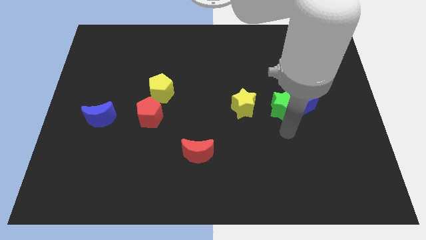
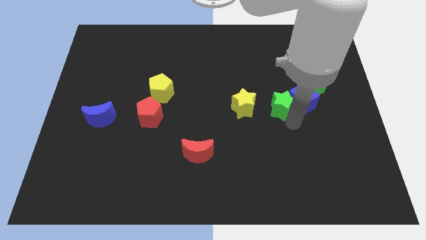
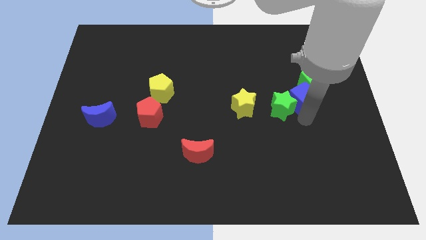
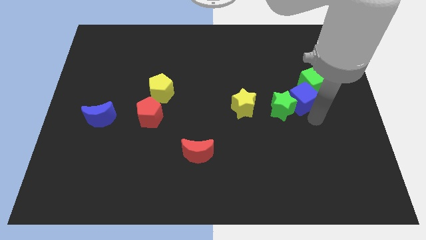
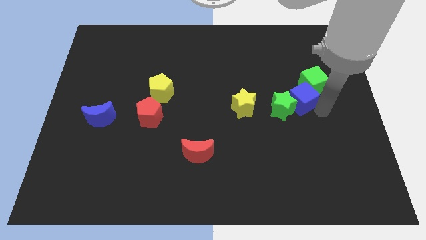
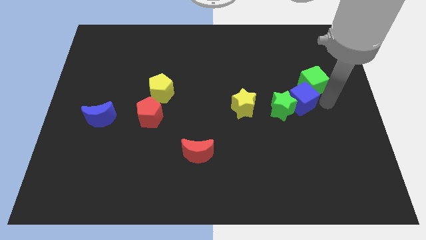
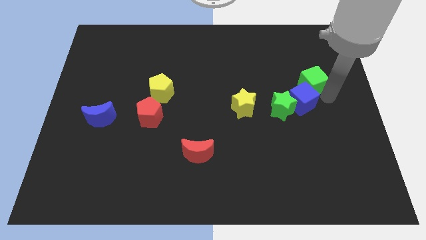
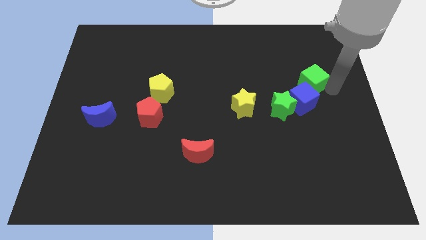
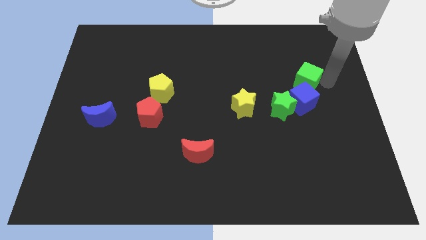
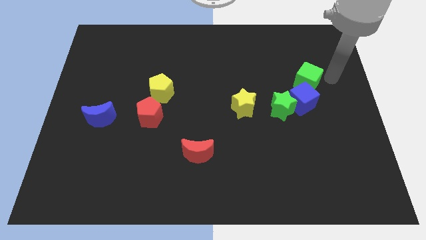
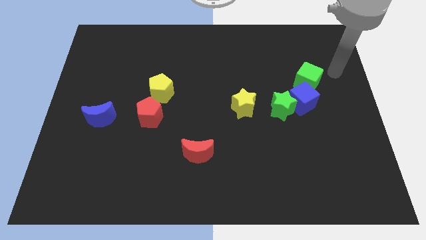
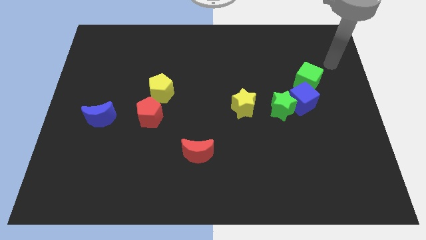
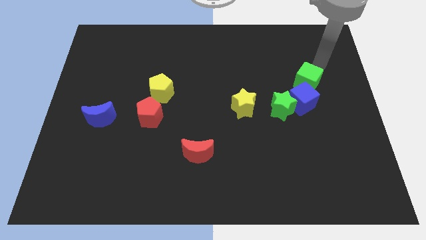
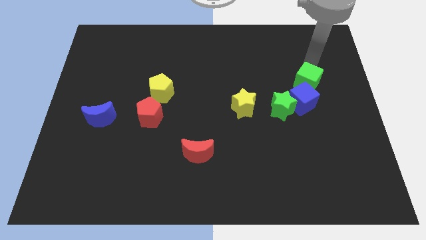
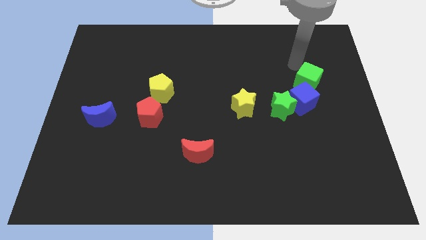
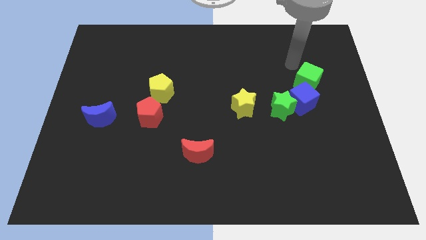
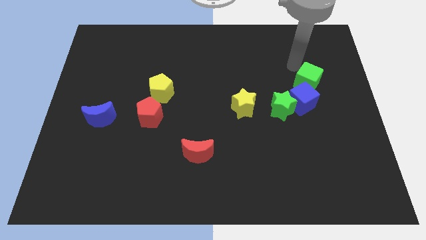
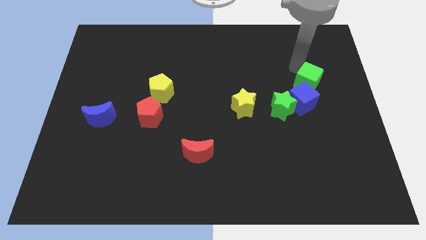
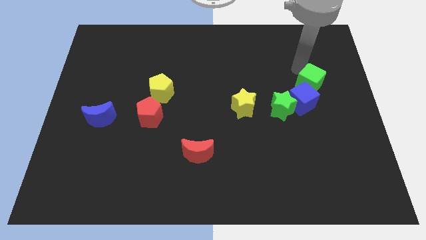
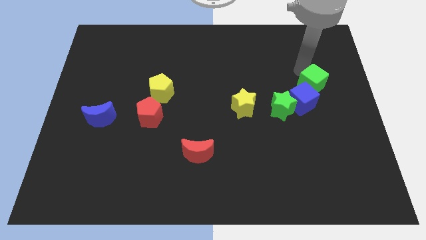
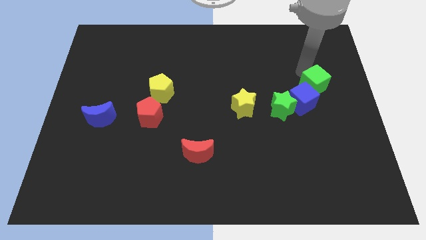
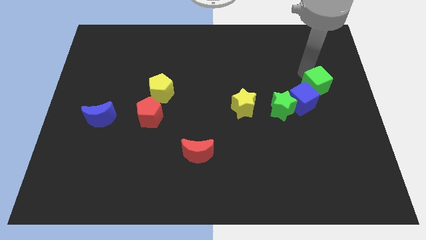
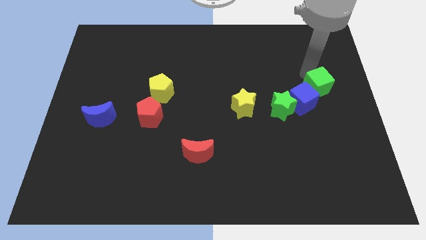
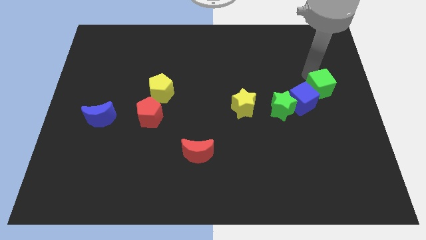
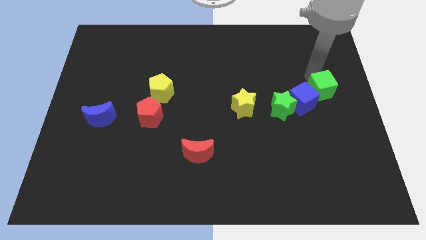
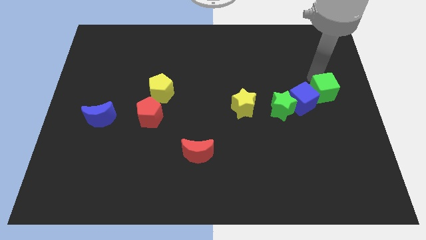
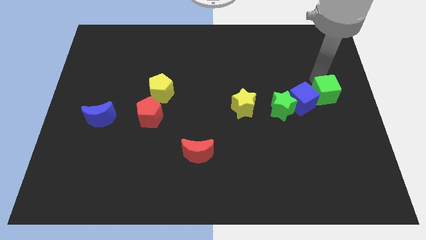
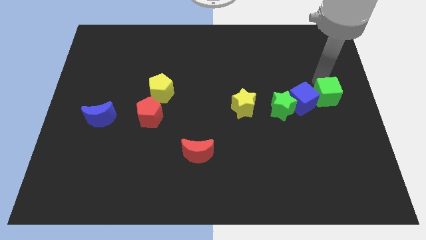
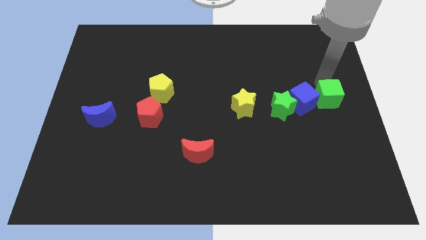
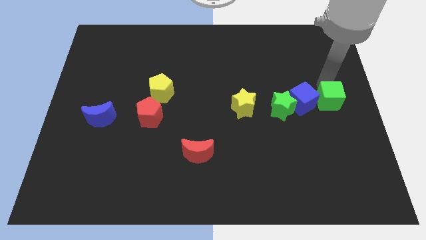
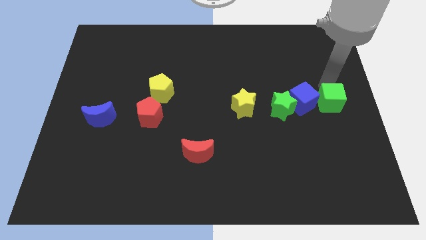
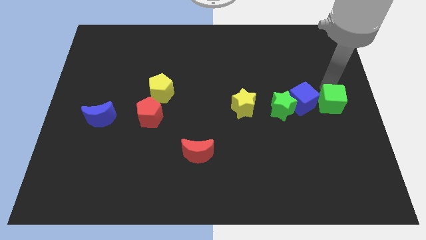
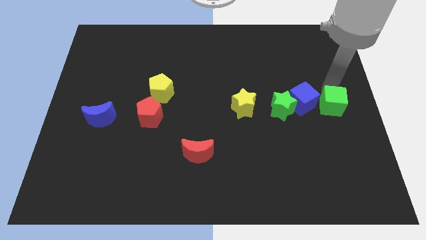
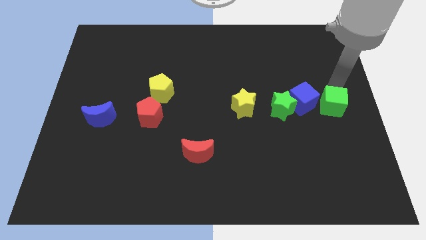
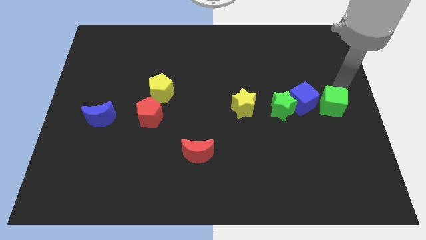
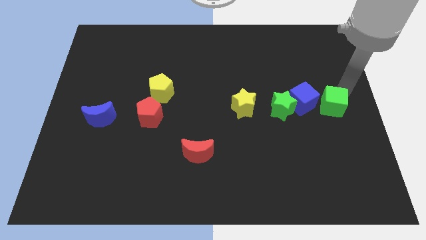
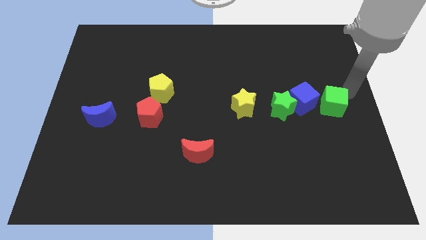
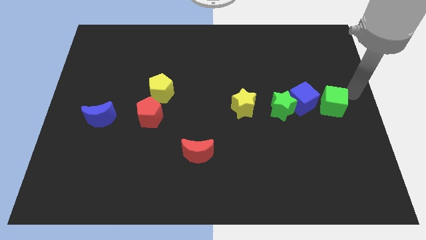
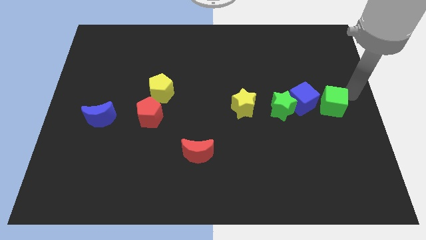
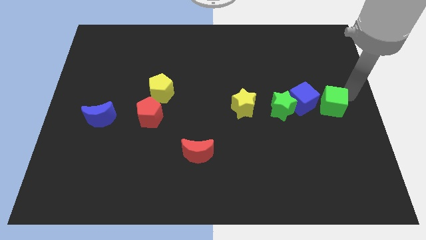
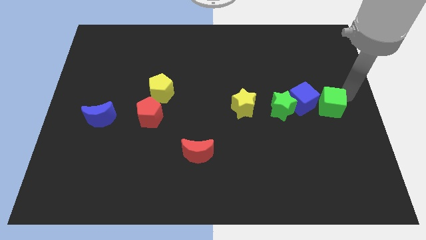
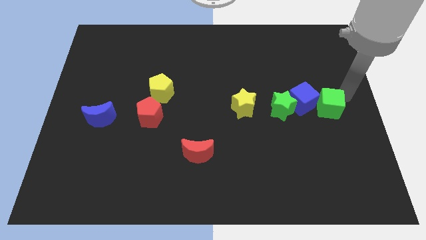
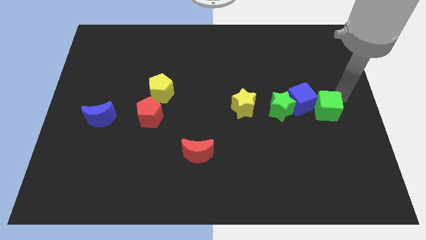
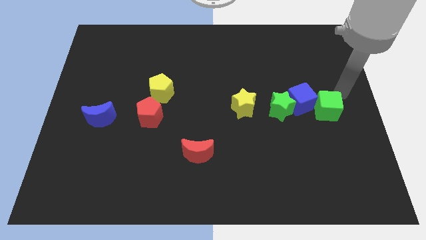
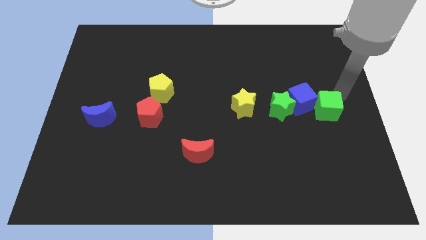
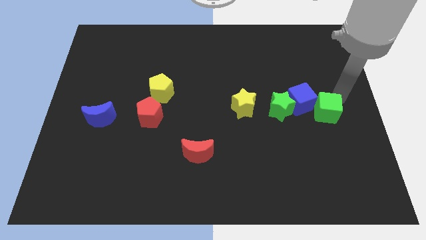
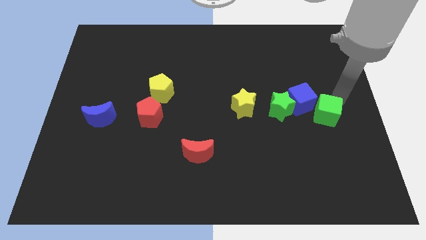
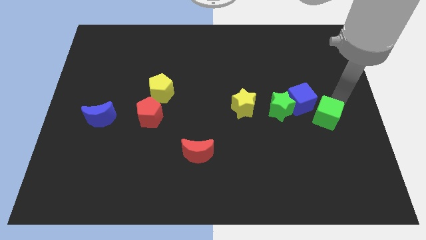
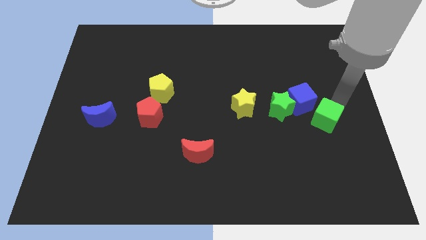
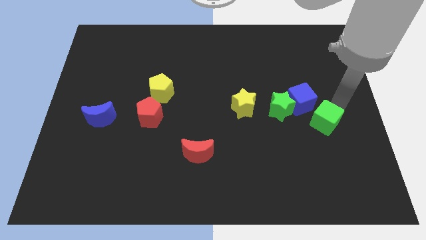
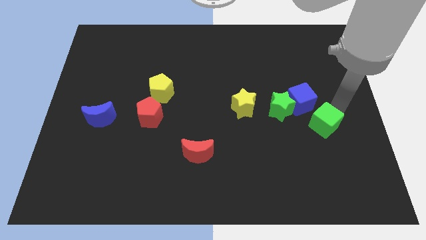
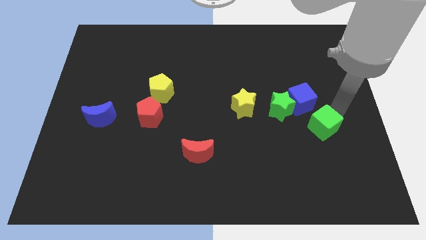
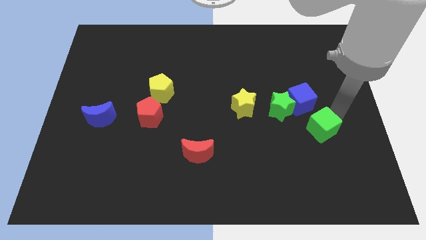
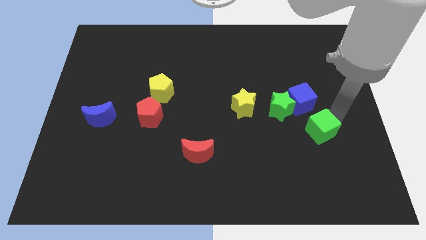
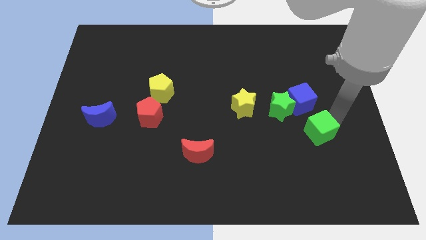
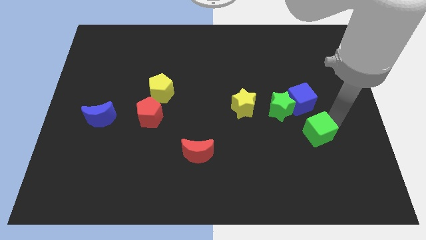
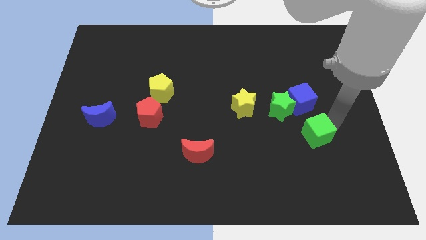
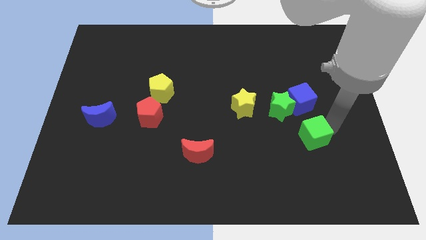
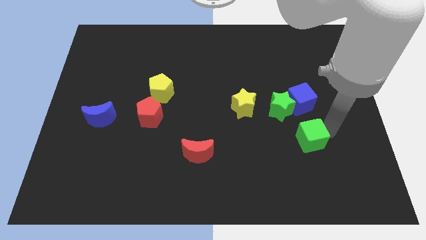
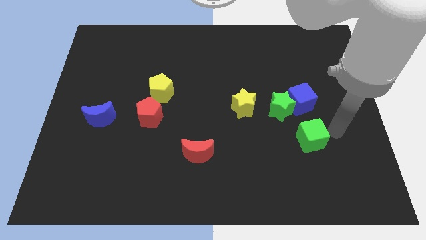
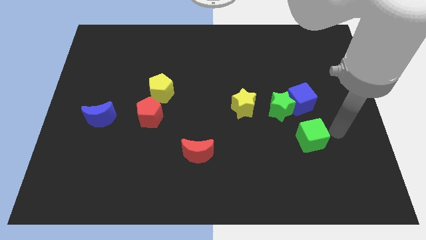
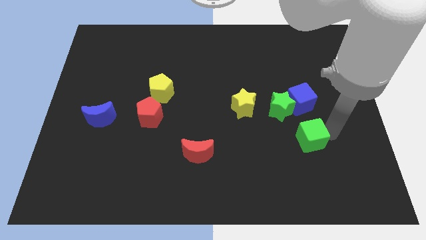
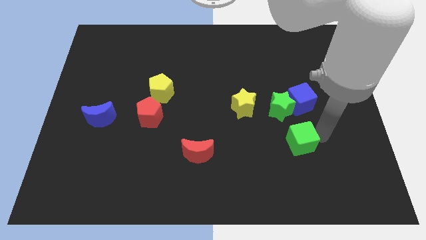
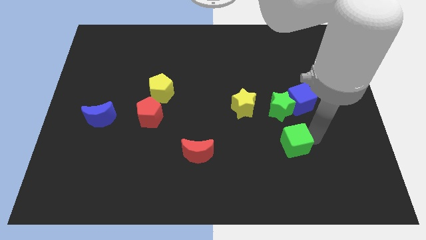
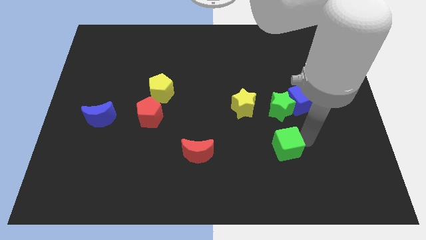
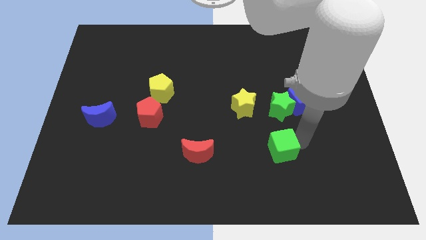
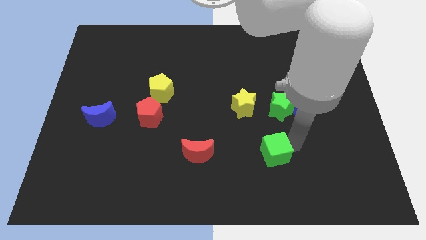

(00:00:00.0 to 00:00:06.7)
move the green cube downwards and left diagonally

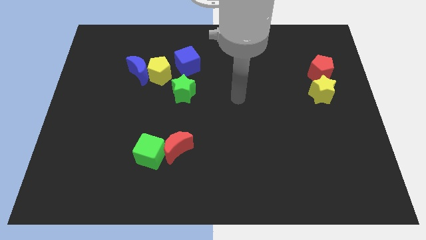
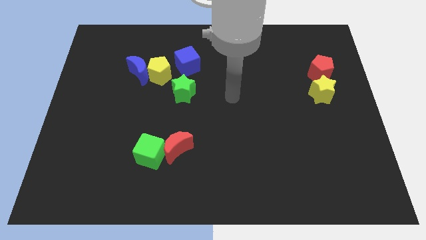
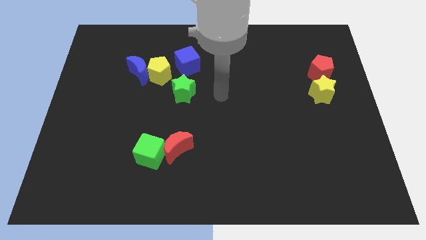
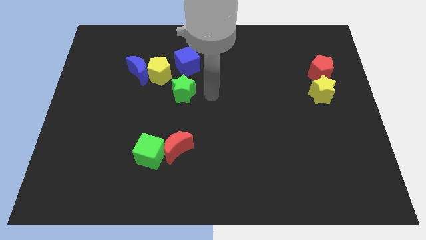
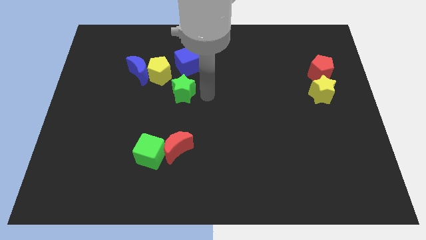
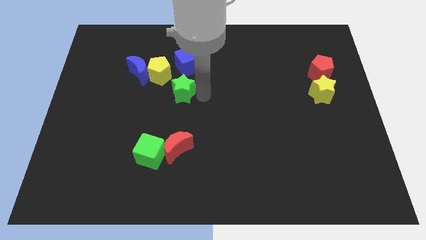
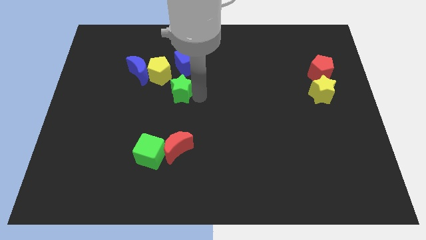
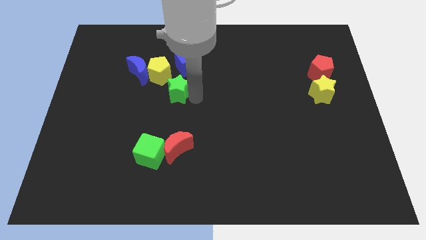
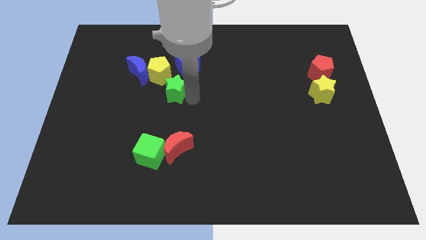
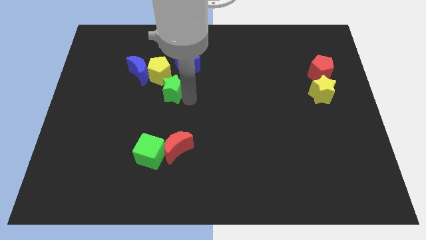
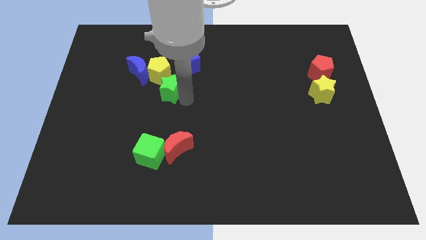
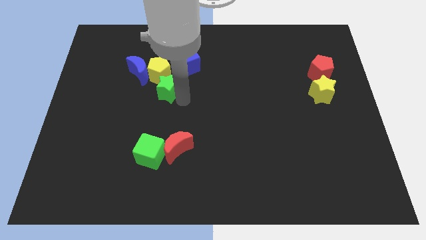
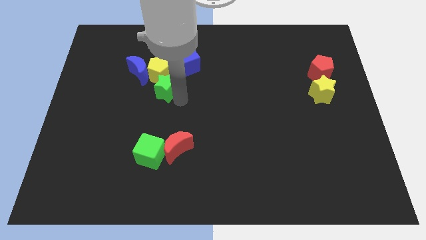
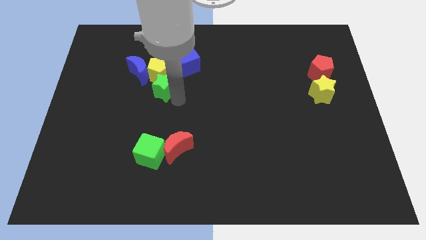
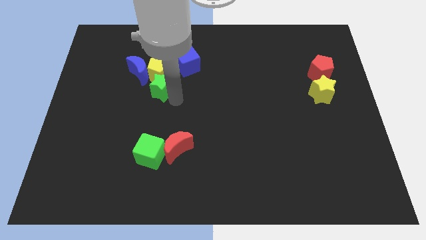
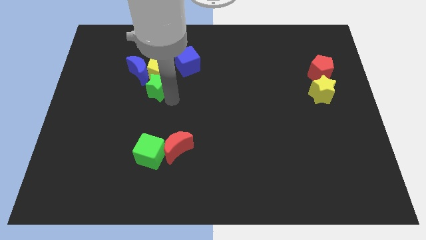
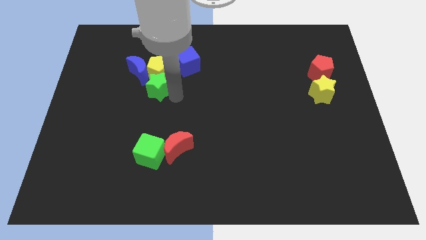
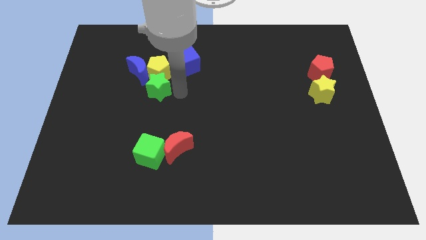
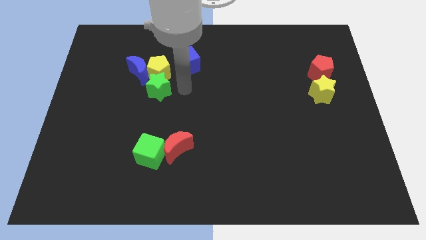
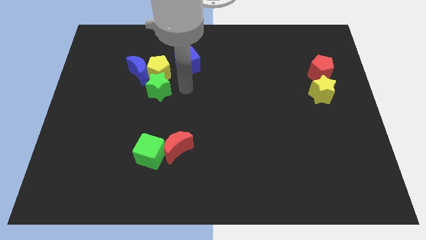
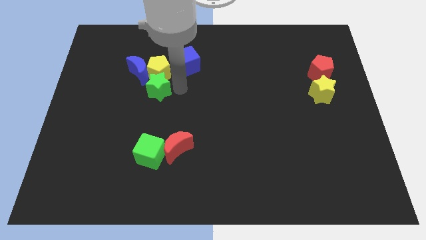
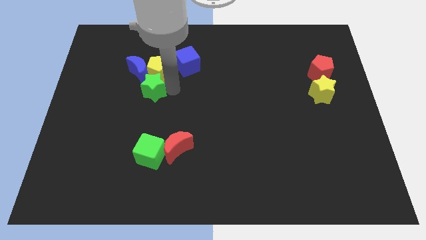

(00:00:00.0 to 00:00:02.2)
slightly slide the green star left
